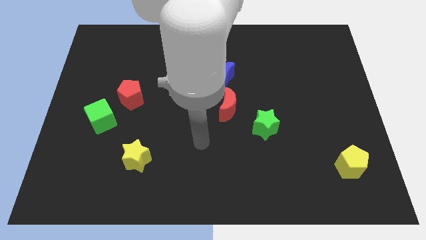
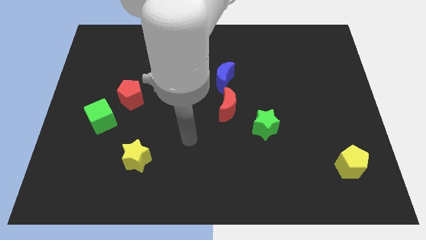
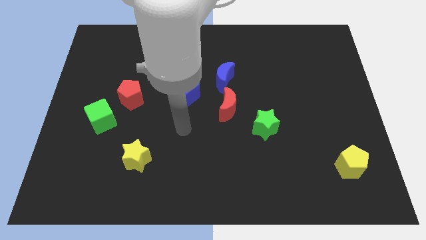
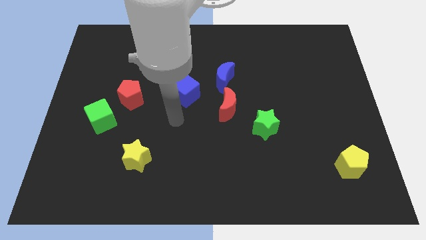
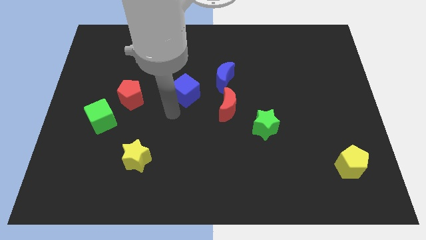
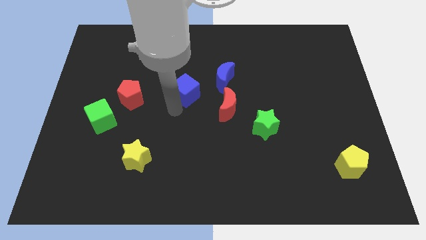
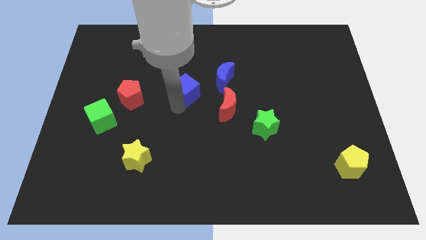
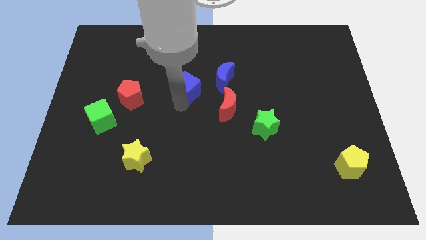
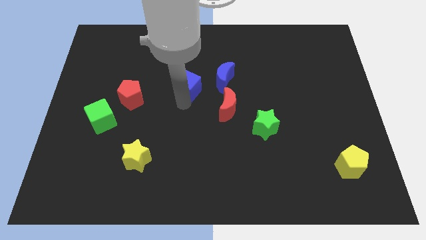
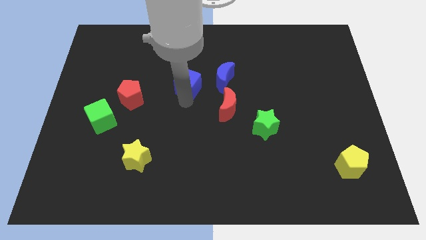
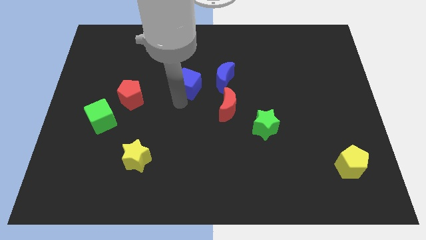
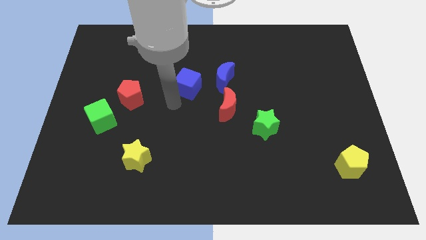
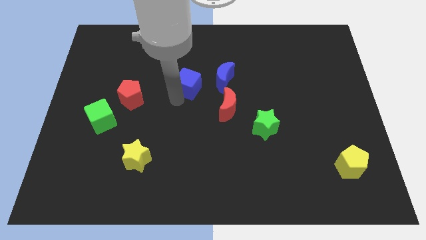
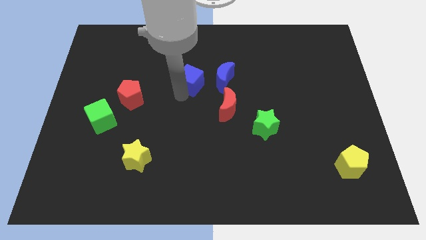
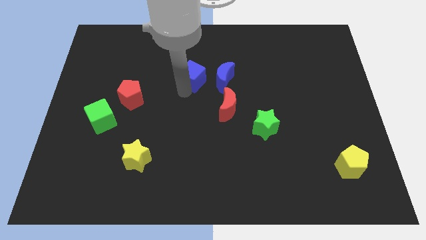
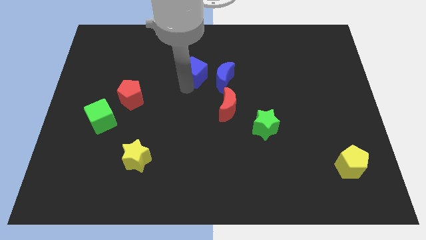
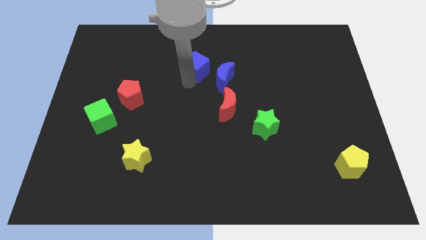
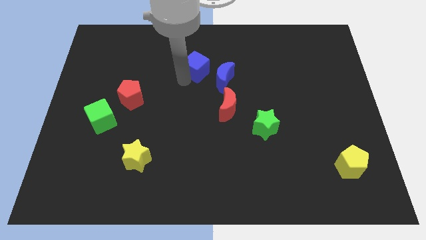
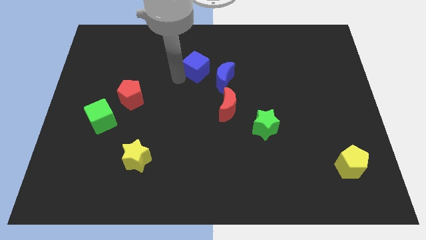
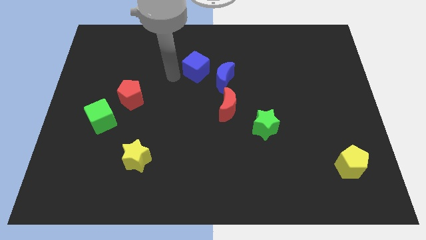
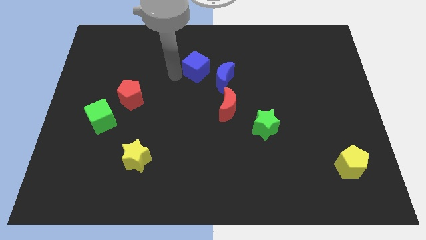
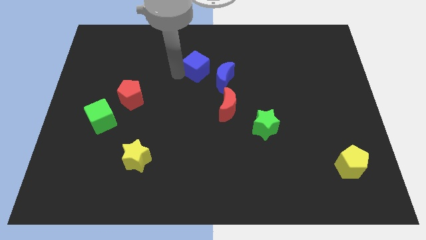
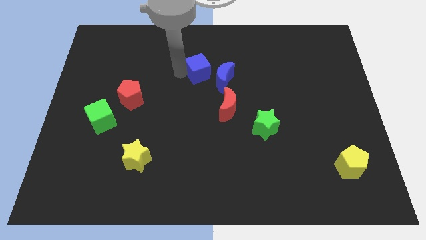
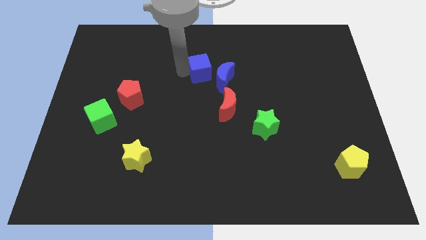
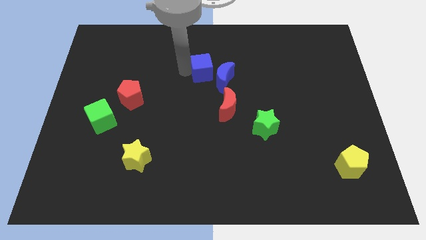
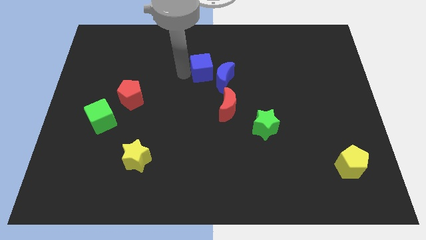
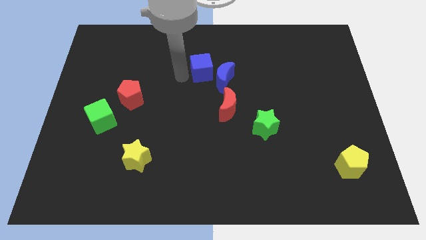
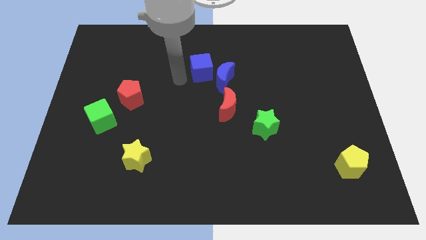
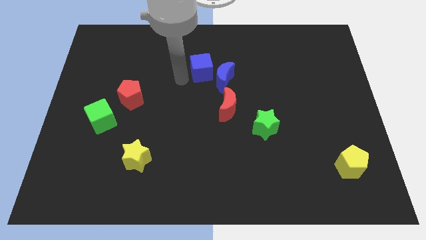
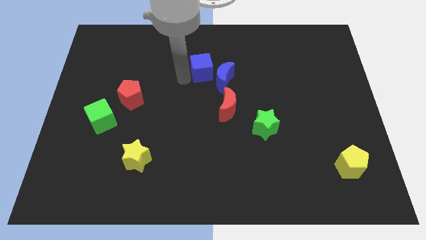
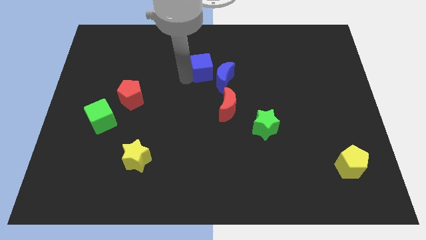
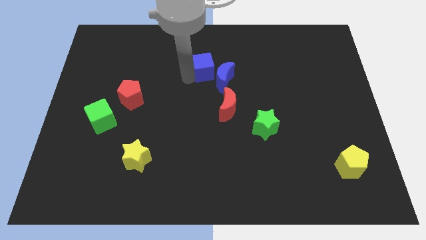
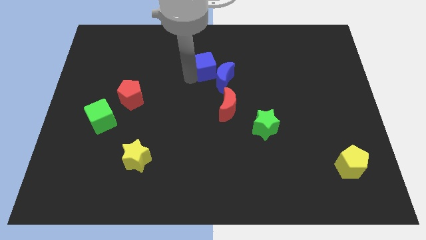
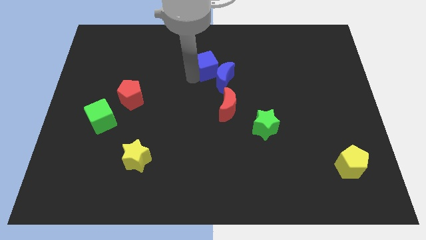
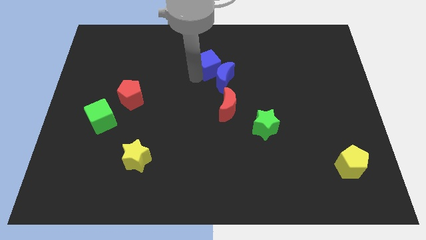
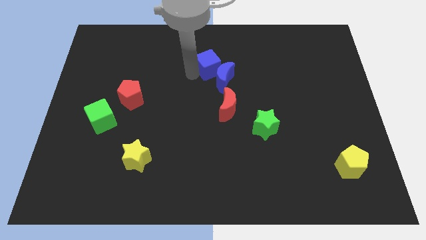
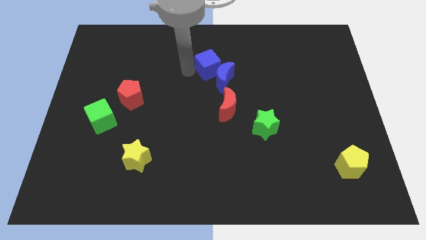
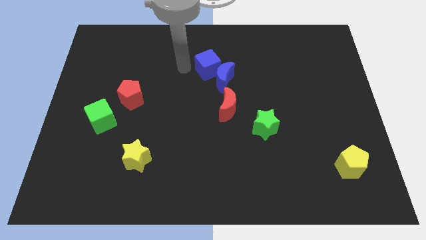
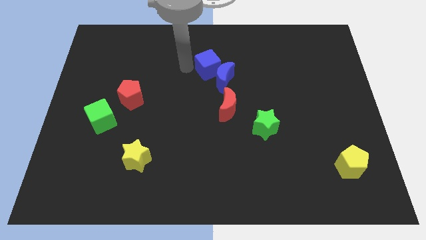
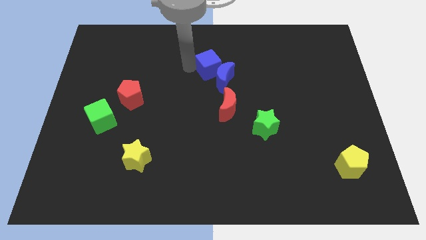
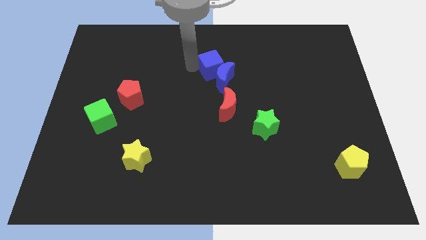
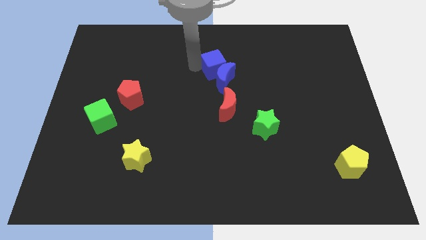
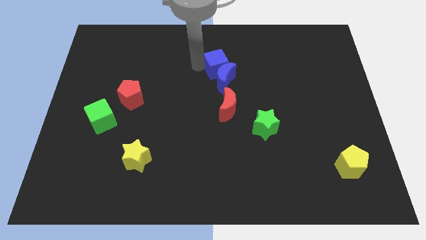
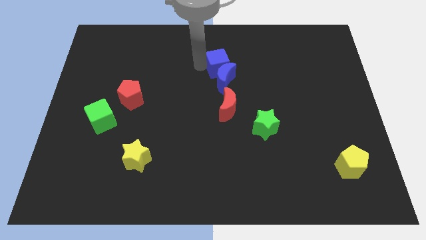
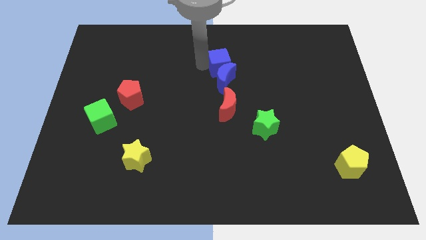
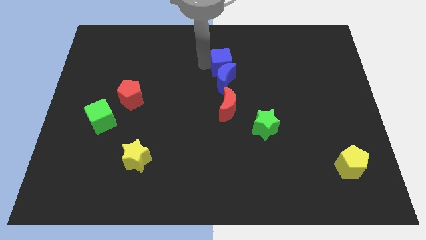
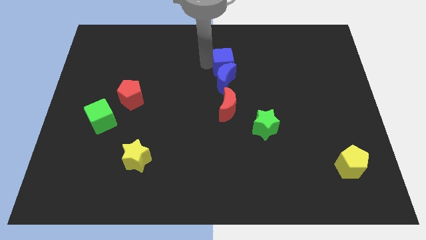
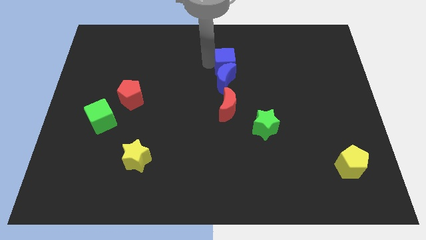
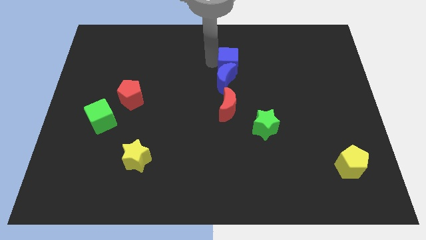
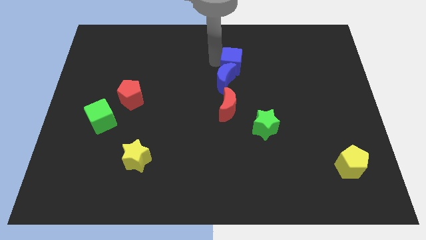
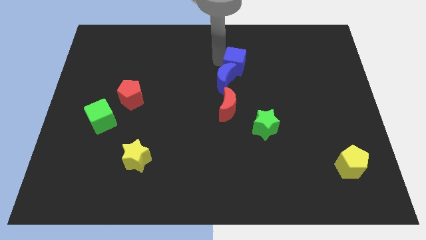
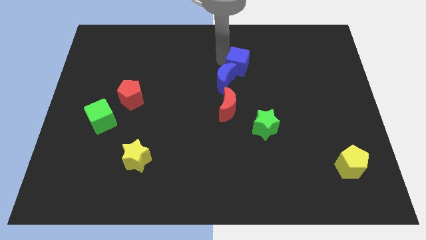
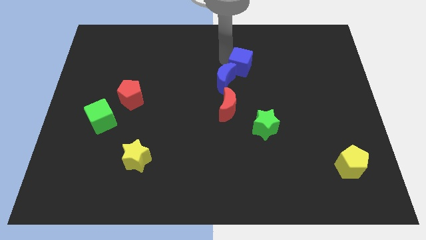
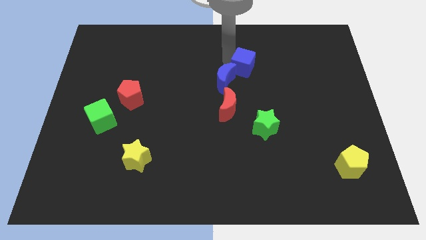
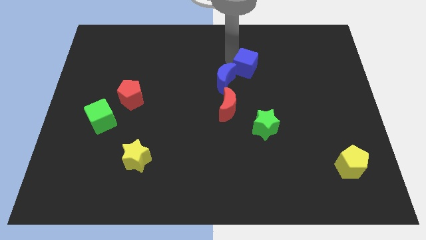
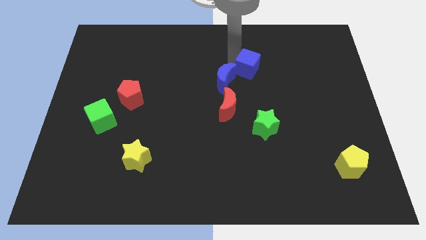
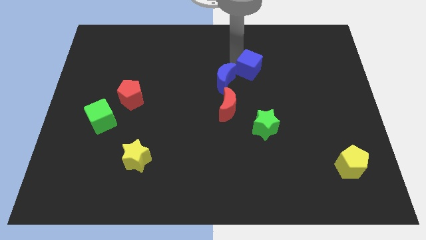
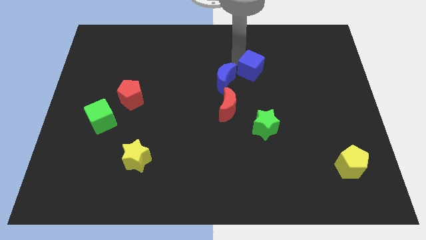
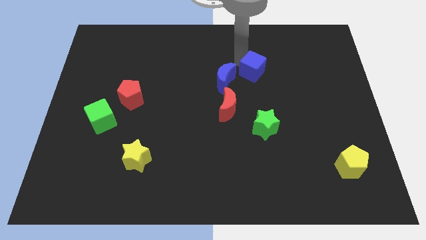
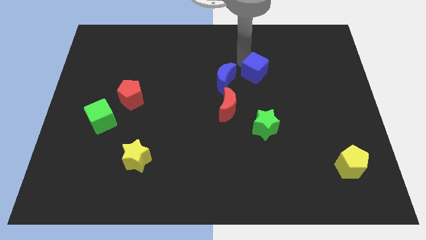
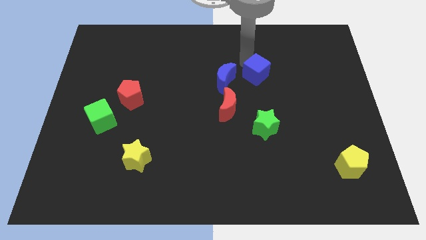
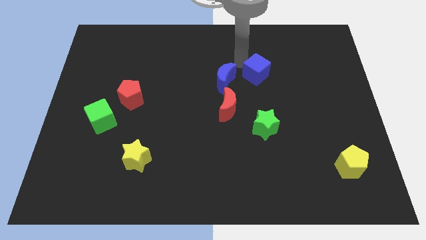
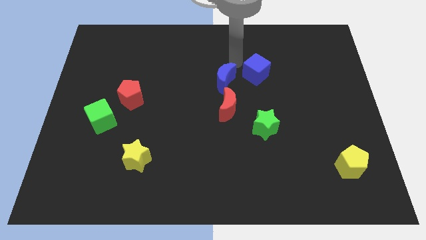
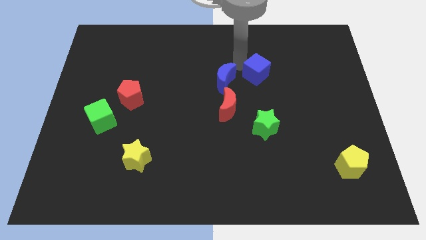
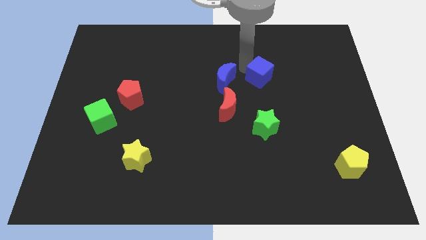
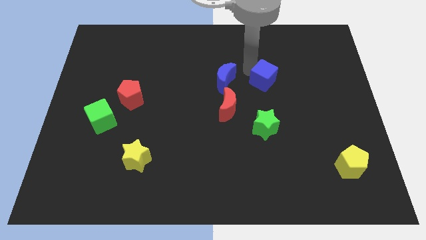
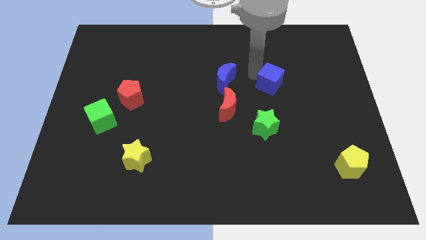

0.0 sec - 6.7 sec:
move the blue cube to the right

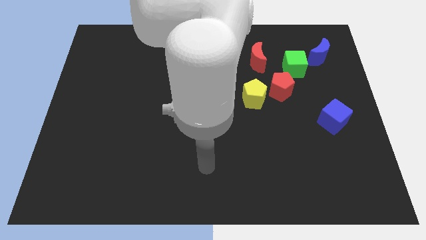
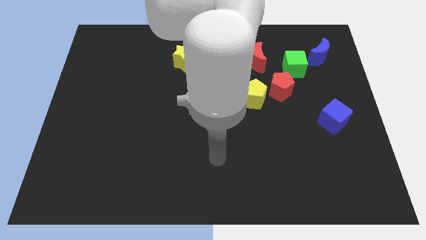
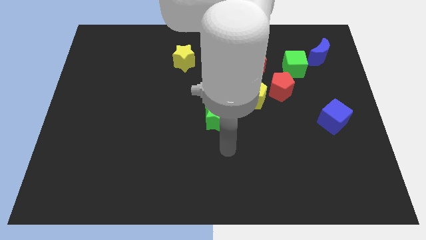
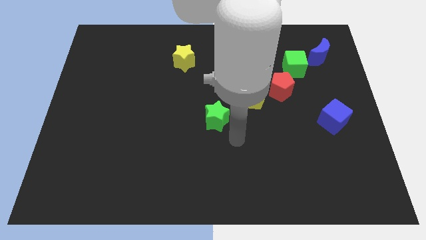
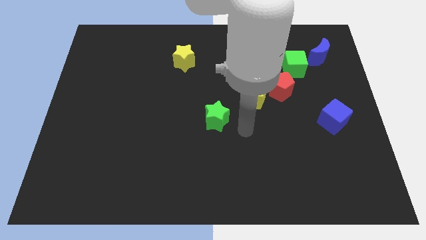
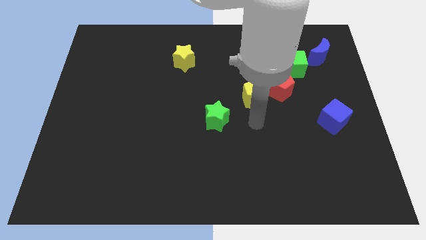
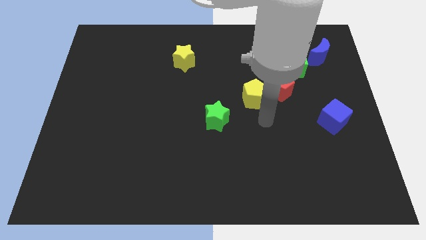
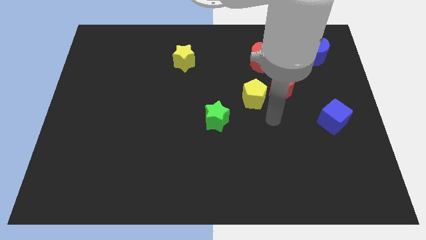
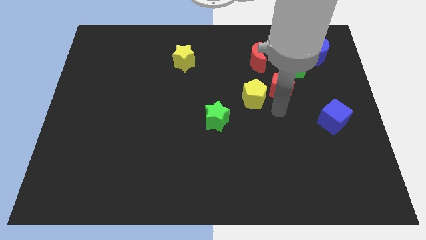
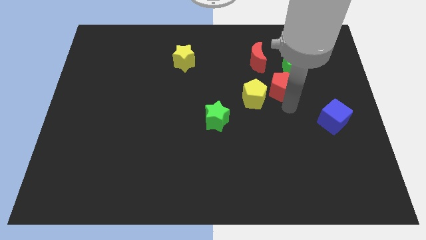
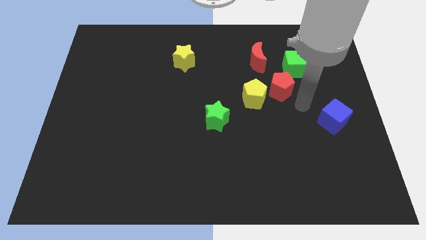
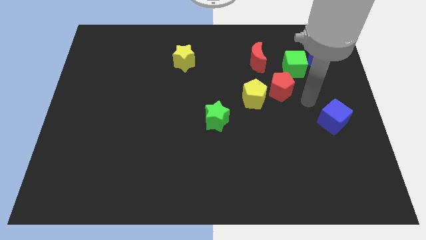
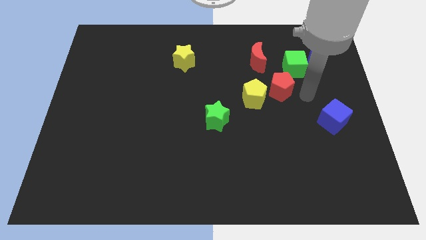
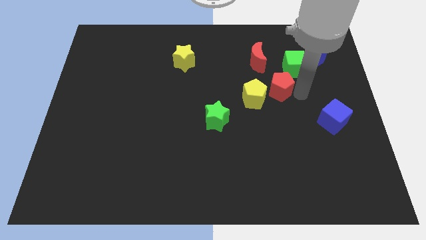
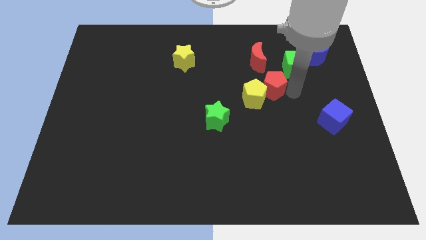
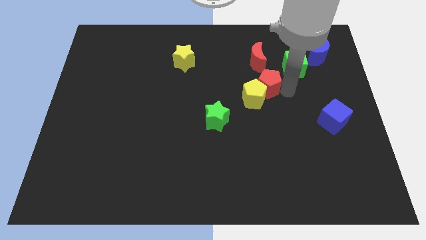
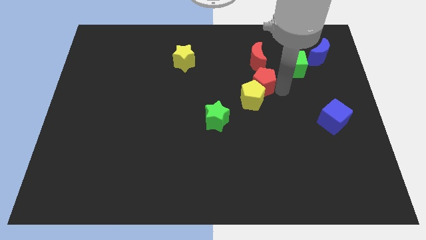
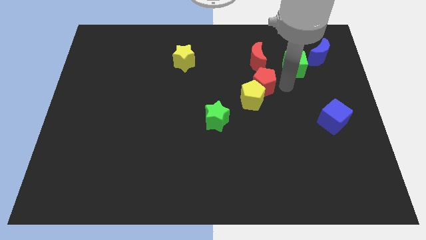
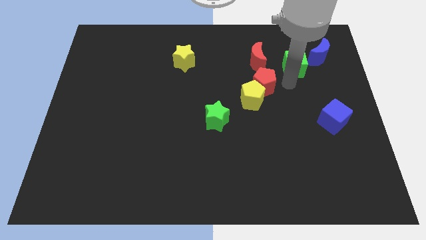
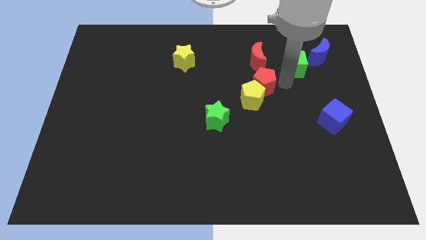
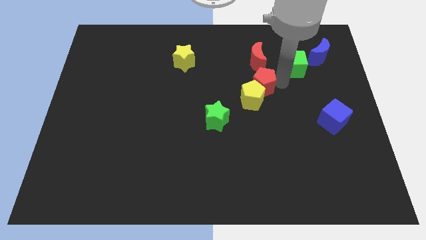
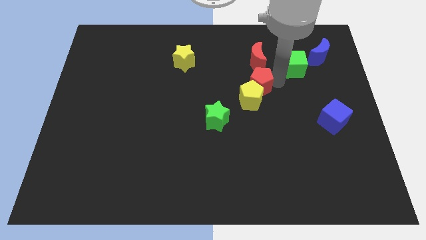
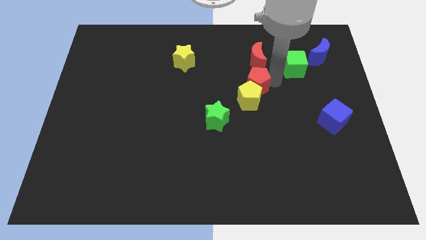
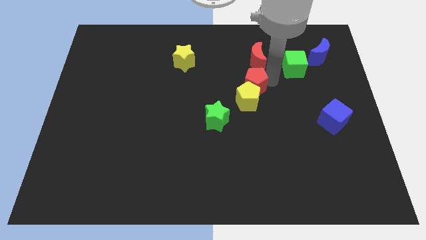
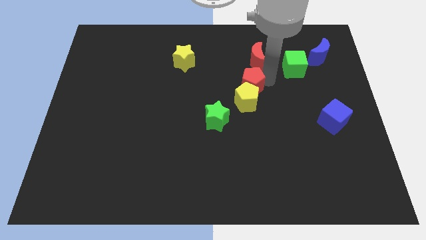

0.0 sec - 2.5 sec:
push the red pentagon to the left a little bit
